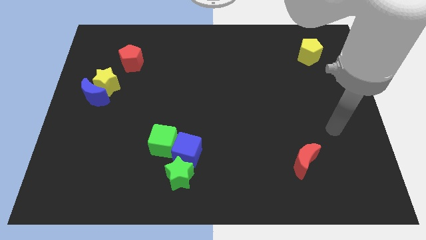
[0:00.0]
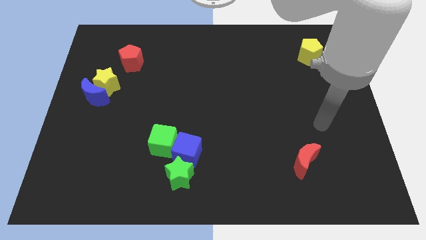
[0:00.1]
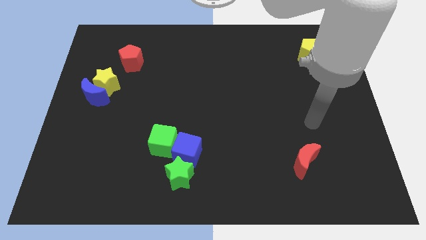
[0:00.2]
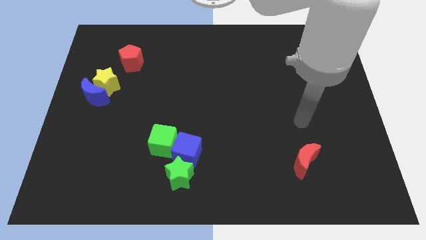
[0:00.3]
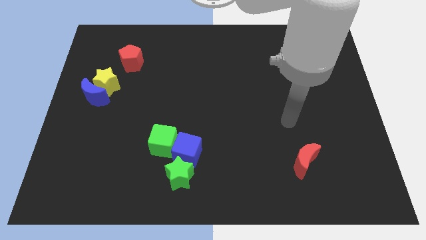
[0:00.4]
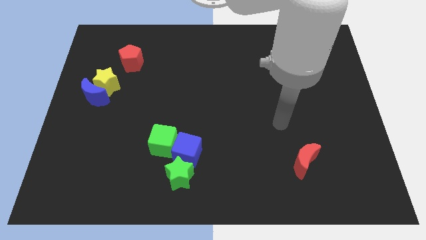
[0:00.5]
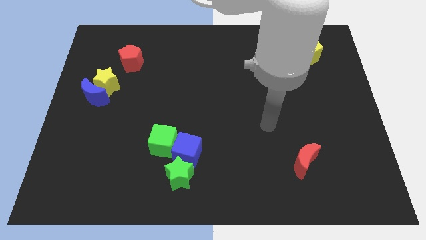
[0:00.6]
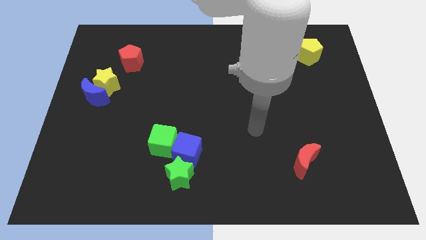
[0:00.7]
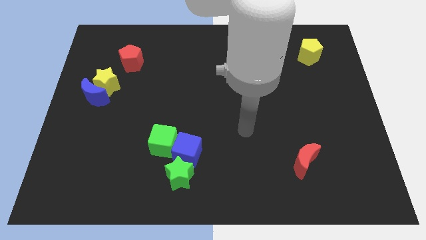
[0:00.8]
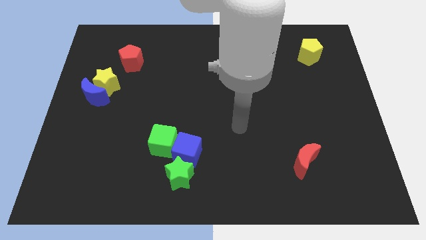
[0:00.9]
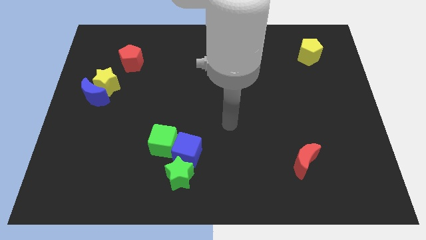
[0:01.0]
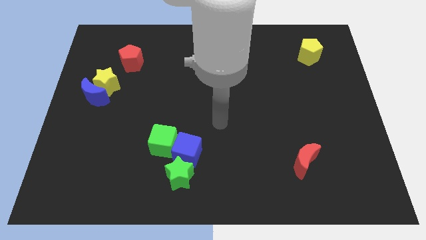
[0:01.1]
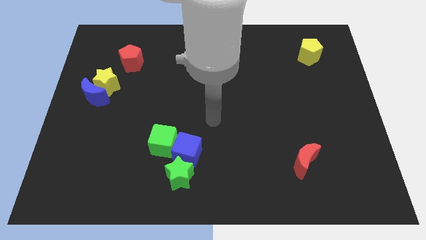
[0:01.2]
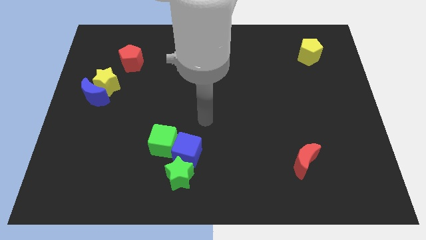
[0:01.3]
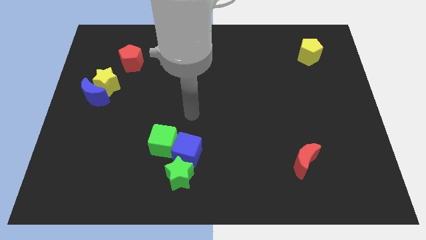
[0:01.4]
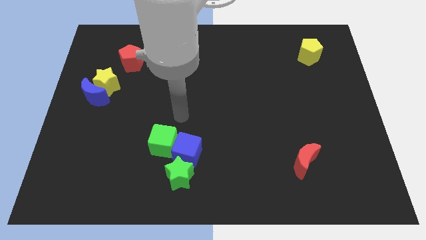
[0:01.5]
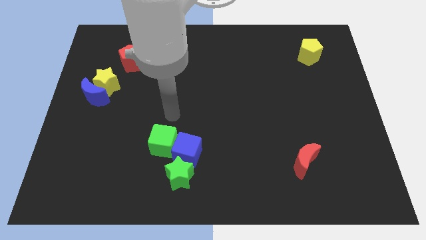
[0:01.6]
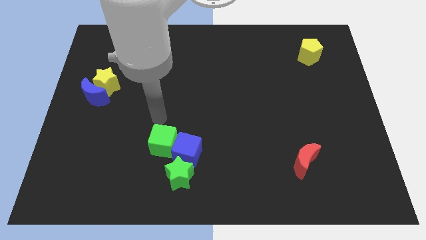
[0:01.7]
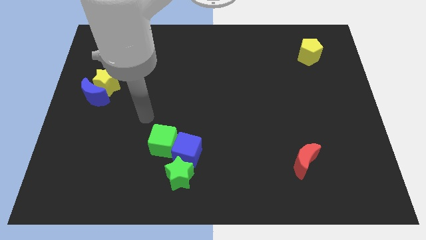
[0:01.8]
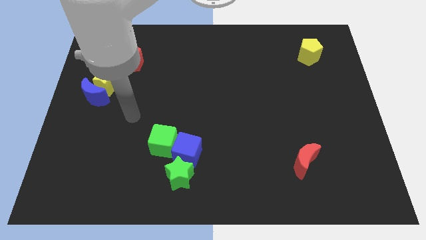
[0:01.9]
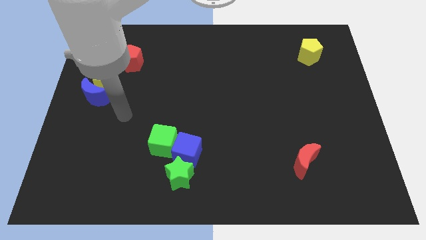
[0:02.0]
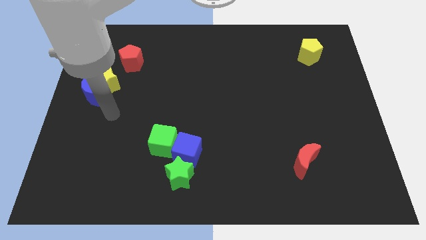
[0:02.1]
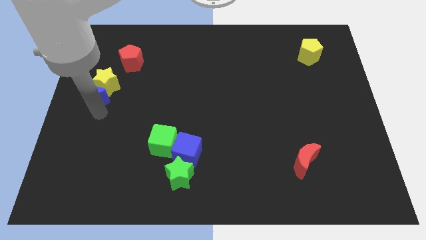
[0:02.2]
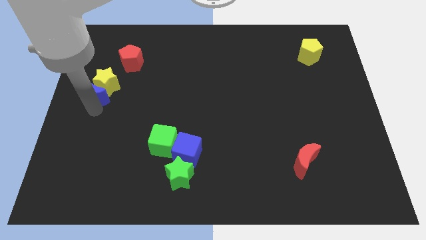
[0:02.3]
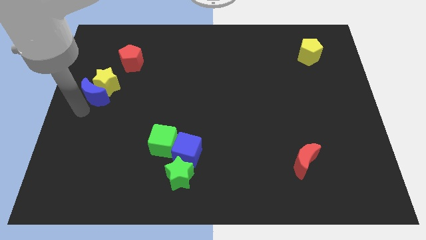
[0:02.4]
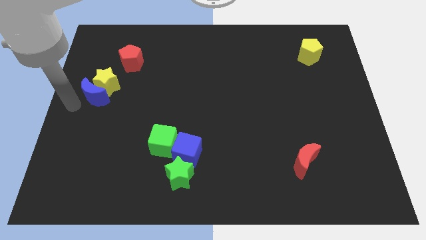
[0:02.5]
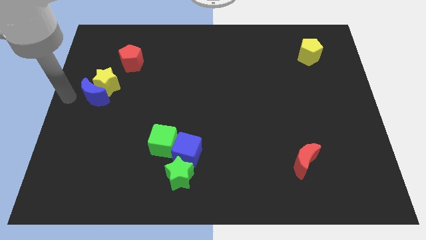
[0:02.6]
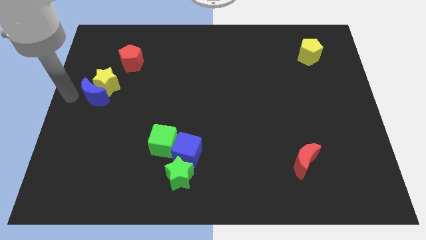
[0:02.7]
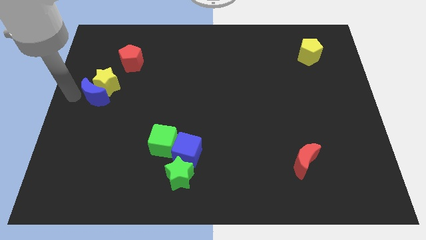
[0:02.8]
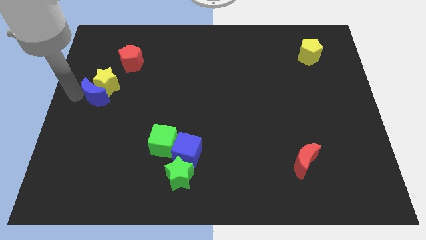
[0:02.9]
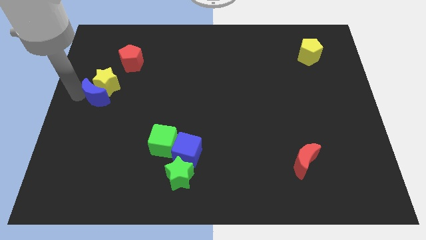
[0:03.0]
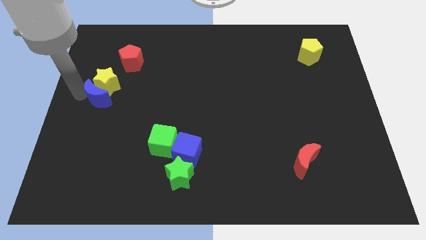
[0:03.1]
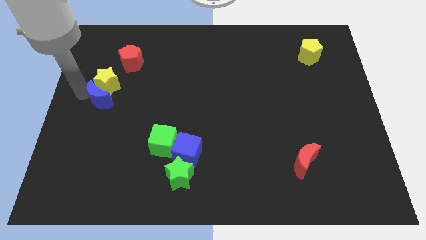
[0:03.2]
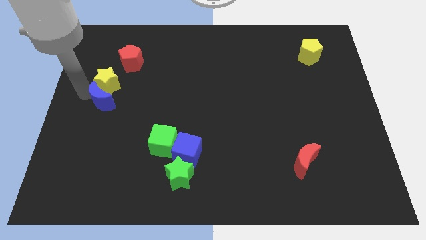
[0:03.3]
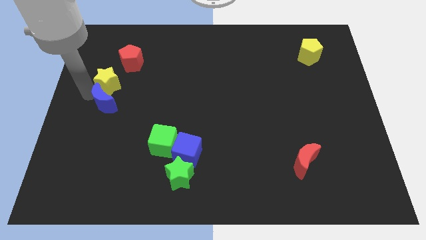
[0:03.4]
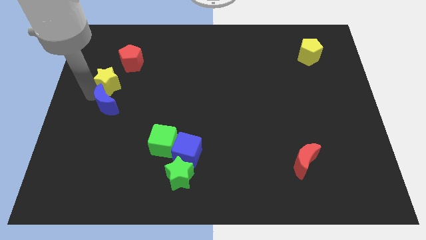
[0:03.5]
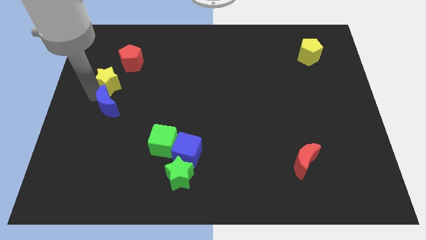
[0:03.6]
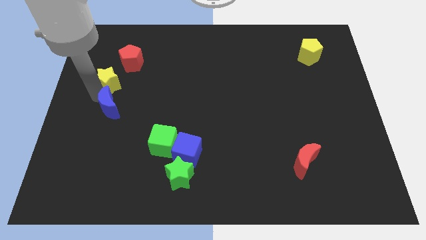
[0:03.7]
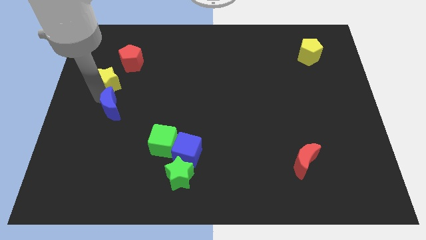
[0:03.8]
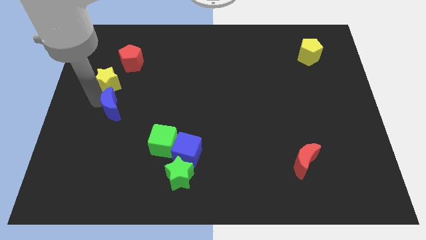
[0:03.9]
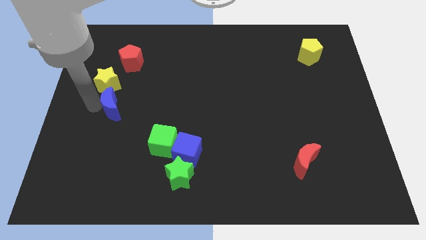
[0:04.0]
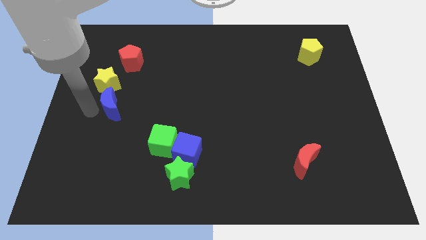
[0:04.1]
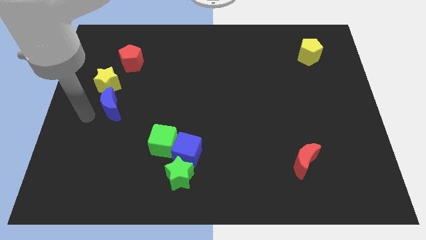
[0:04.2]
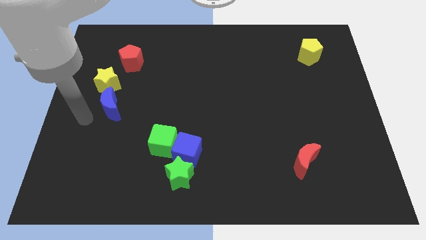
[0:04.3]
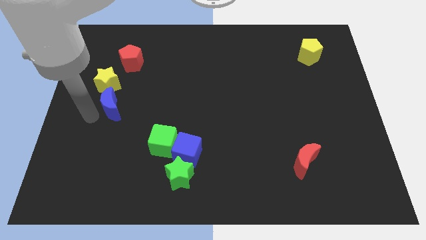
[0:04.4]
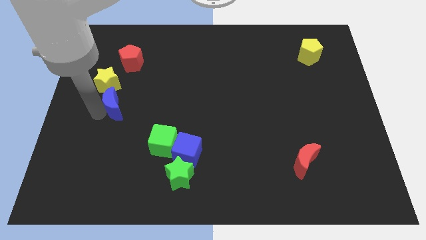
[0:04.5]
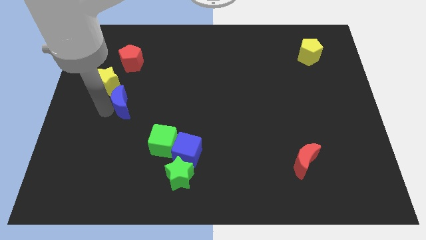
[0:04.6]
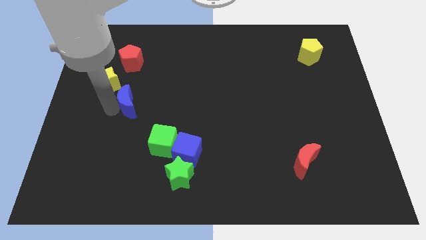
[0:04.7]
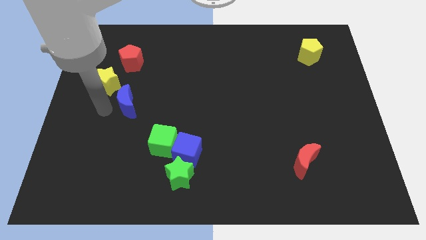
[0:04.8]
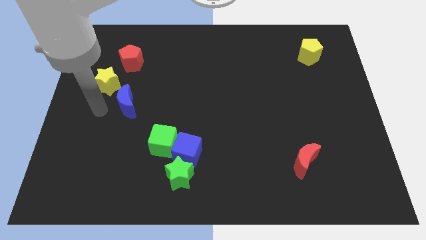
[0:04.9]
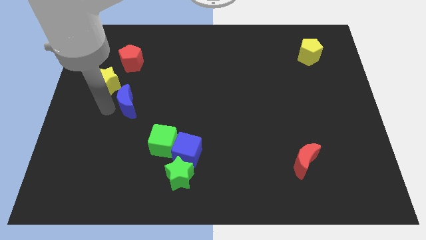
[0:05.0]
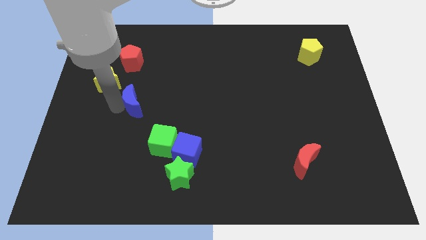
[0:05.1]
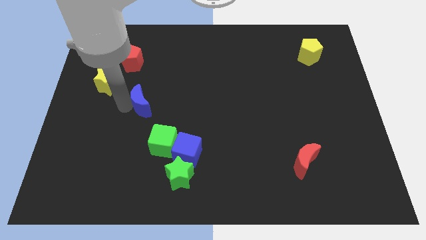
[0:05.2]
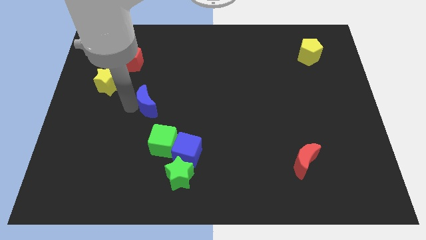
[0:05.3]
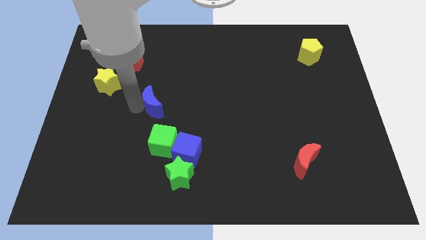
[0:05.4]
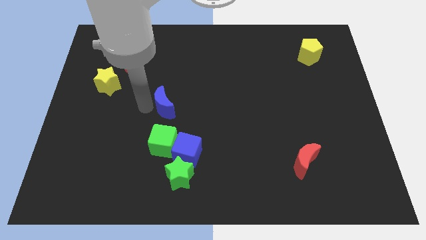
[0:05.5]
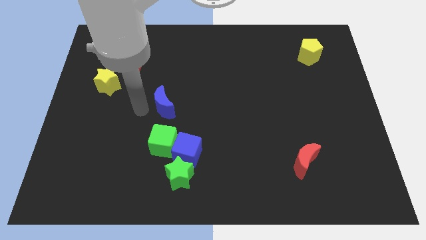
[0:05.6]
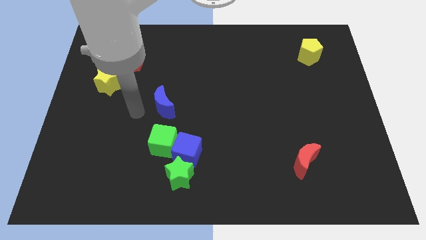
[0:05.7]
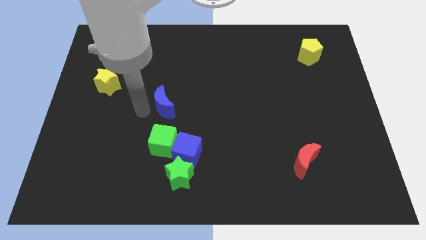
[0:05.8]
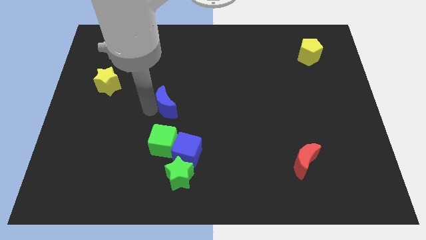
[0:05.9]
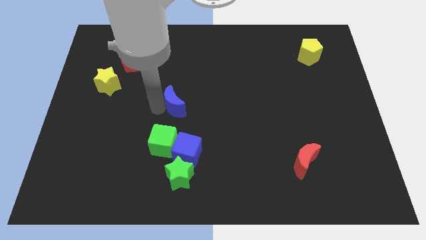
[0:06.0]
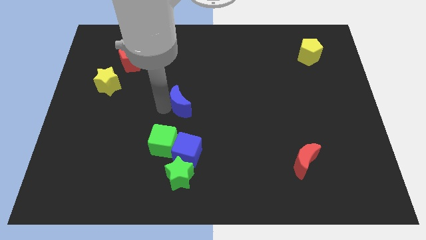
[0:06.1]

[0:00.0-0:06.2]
move the blue moon right

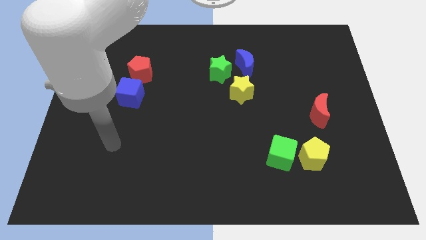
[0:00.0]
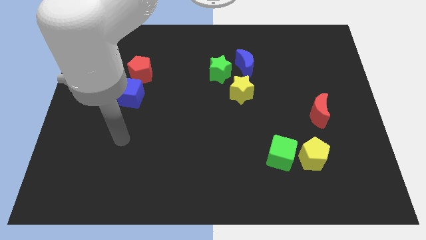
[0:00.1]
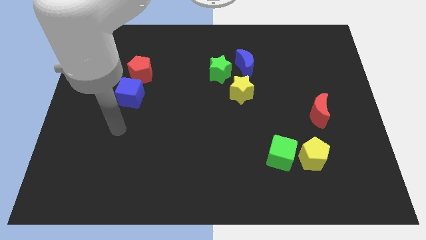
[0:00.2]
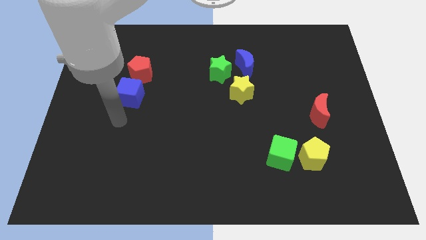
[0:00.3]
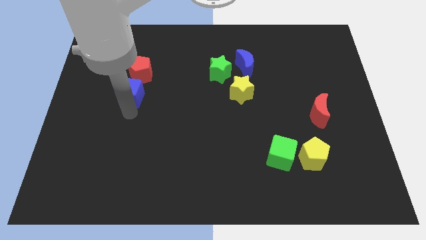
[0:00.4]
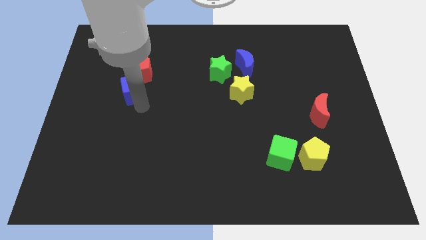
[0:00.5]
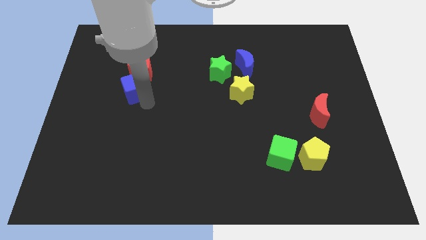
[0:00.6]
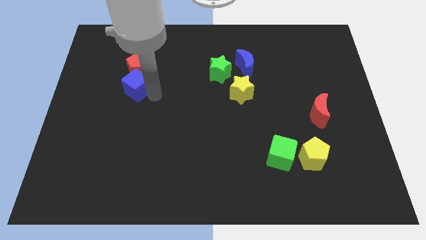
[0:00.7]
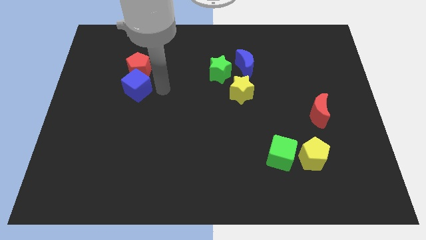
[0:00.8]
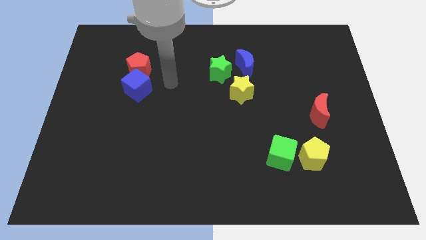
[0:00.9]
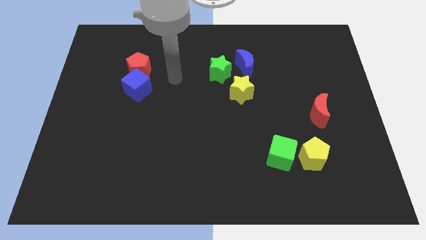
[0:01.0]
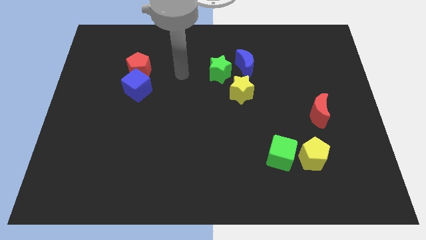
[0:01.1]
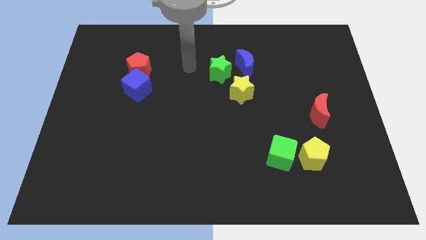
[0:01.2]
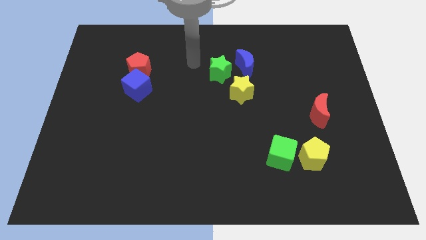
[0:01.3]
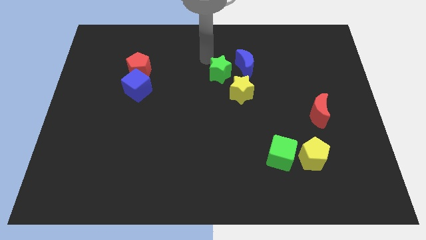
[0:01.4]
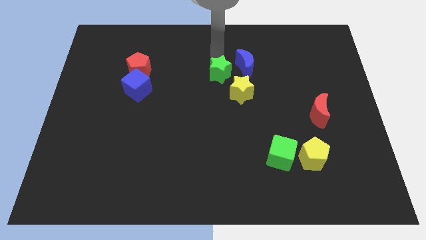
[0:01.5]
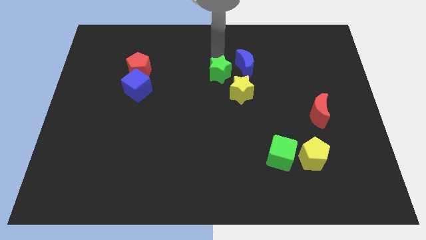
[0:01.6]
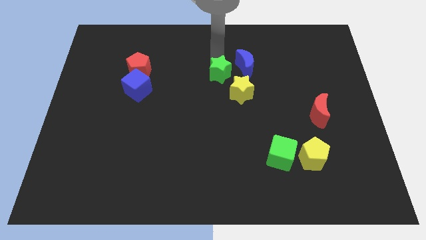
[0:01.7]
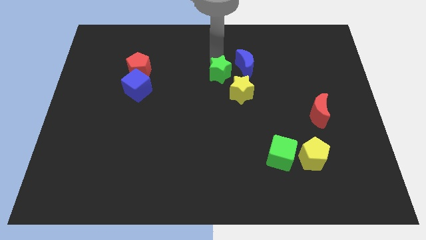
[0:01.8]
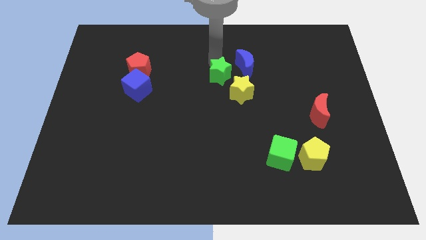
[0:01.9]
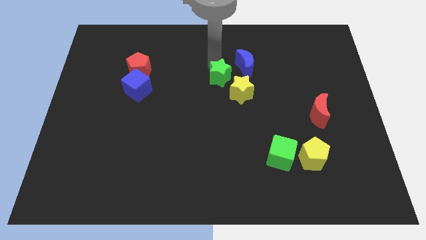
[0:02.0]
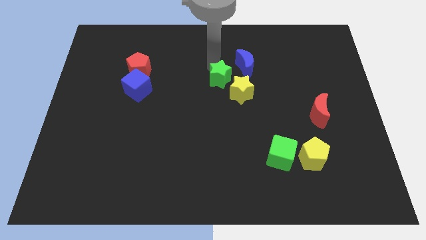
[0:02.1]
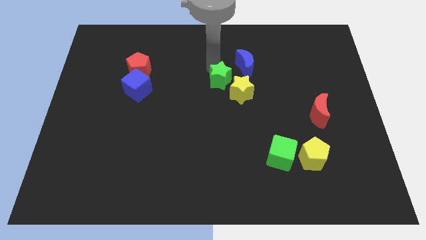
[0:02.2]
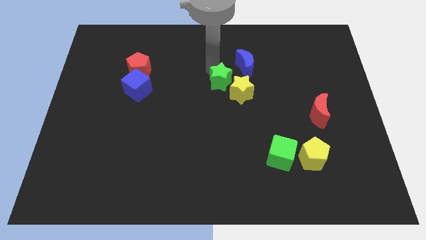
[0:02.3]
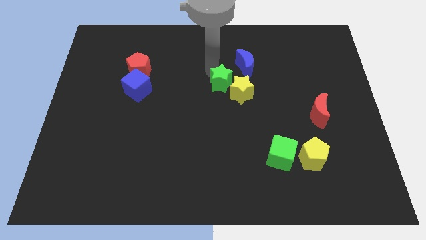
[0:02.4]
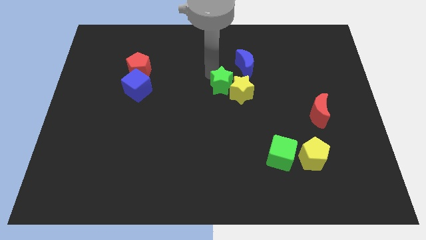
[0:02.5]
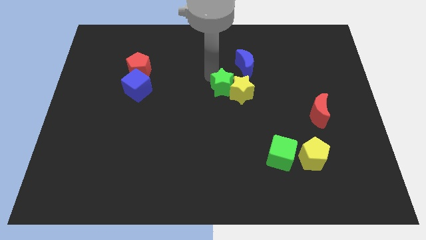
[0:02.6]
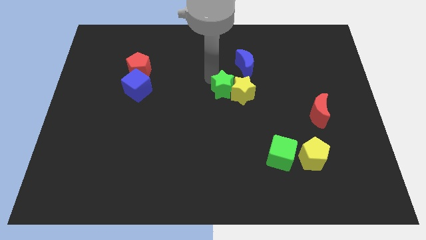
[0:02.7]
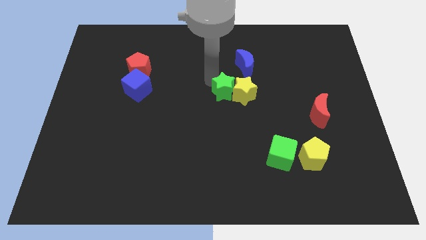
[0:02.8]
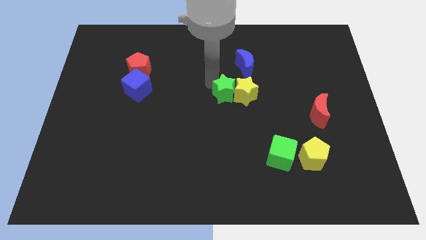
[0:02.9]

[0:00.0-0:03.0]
slightly move the green star down
